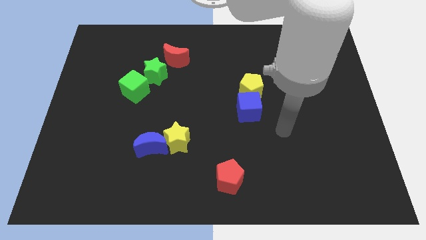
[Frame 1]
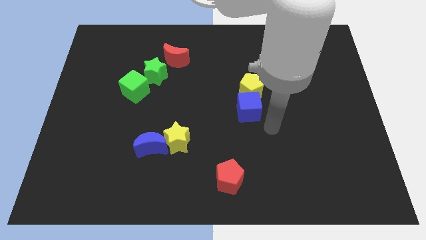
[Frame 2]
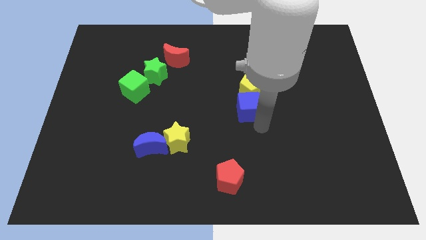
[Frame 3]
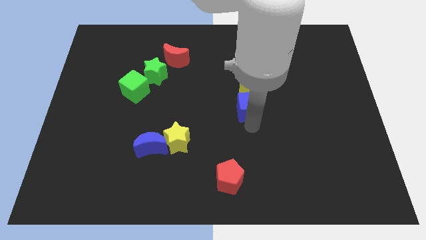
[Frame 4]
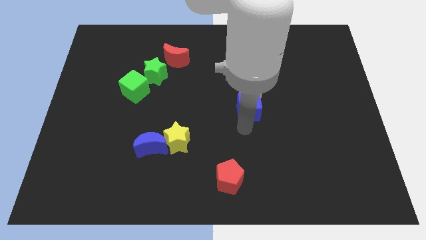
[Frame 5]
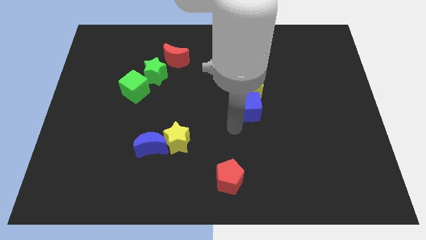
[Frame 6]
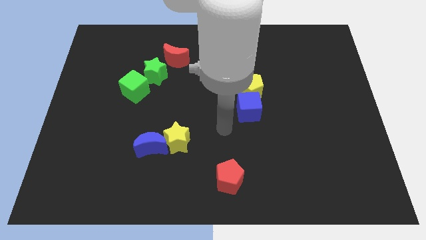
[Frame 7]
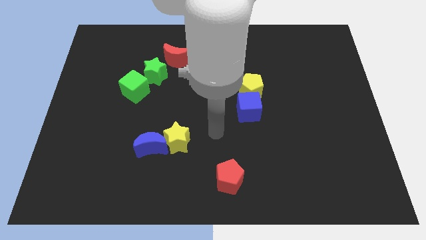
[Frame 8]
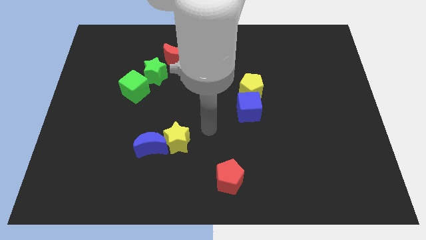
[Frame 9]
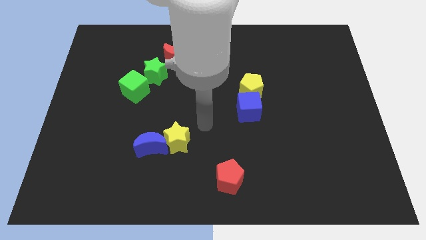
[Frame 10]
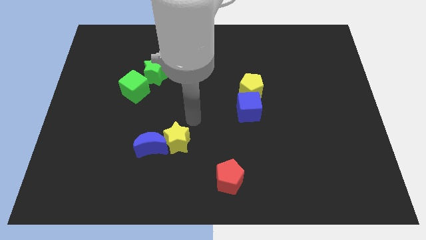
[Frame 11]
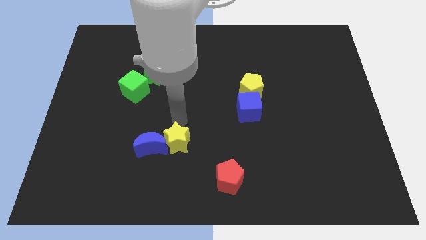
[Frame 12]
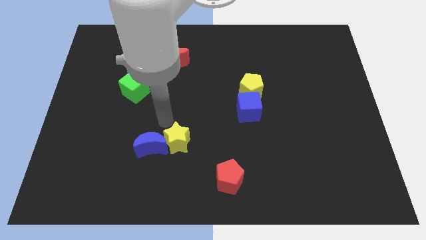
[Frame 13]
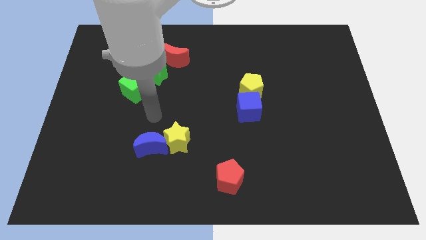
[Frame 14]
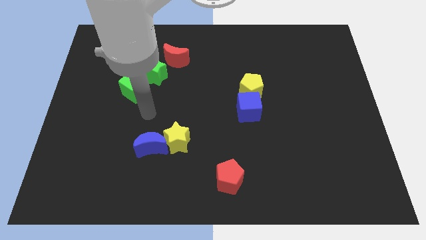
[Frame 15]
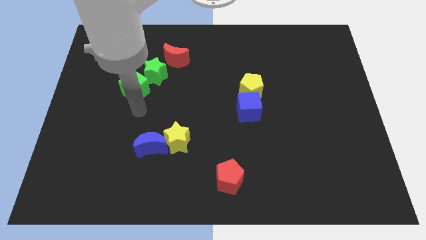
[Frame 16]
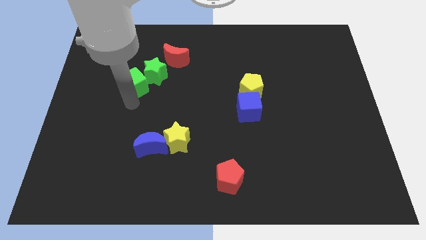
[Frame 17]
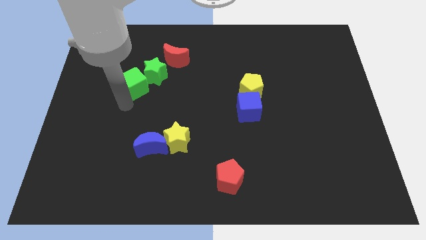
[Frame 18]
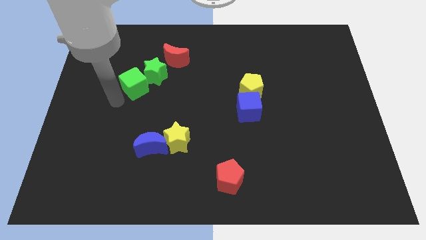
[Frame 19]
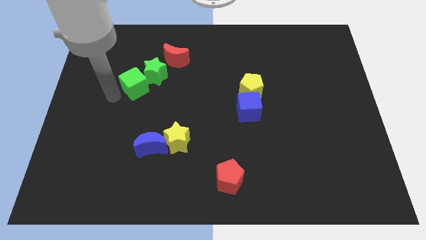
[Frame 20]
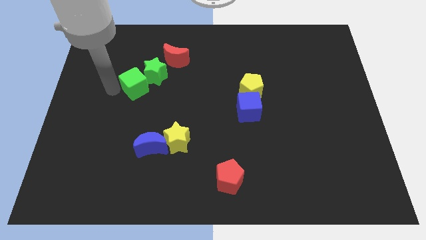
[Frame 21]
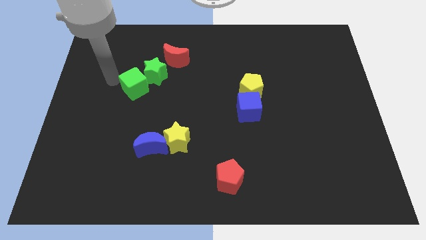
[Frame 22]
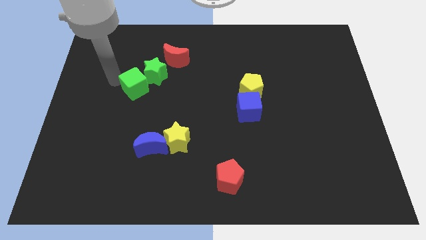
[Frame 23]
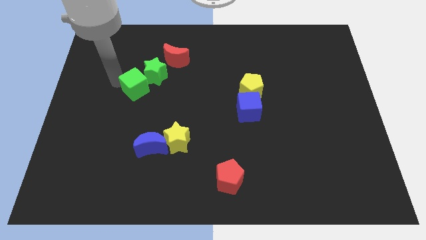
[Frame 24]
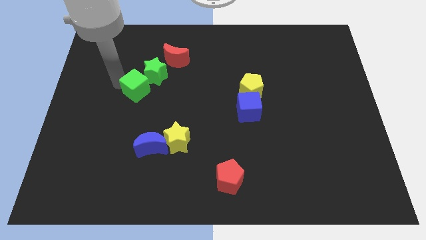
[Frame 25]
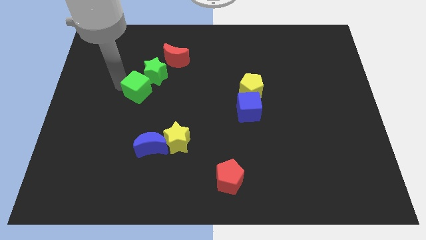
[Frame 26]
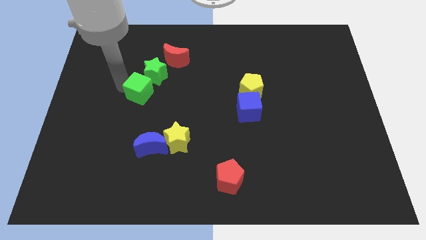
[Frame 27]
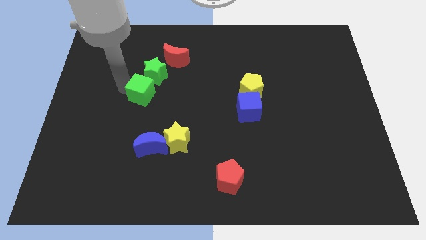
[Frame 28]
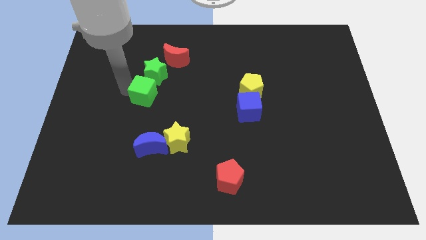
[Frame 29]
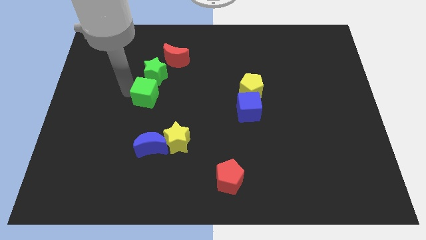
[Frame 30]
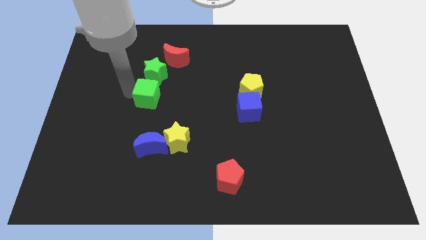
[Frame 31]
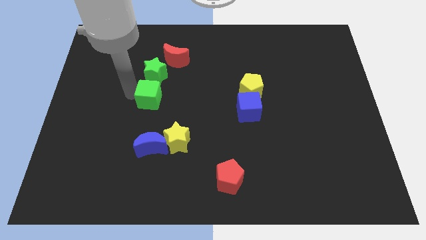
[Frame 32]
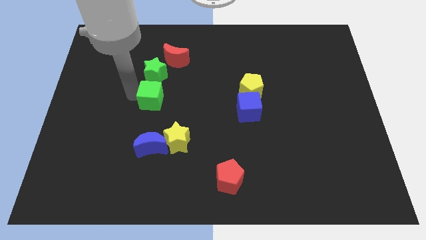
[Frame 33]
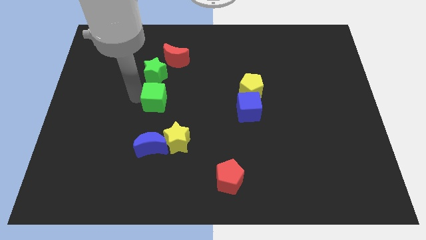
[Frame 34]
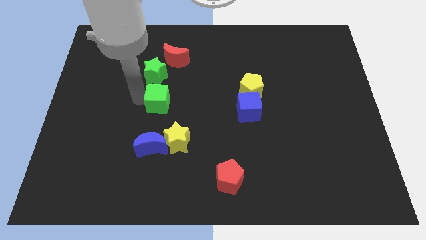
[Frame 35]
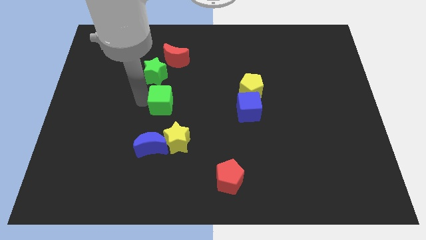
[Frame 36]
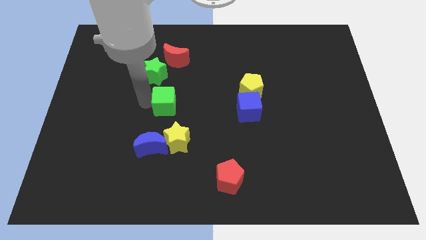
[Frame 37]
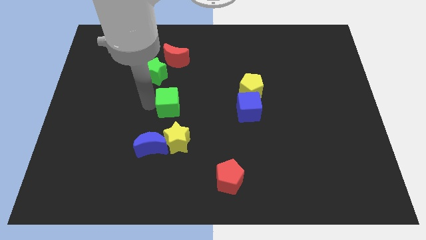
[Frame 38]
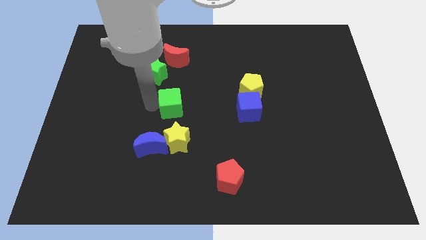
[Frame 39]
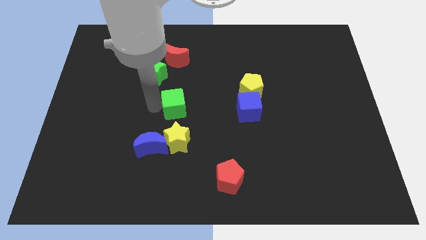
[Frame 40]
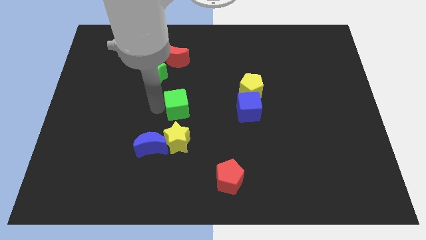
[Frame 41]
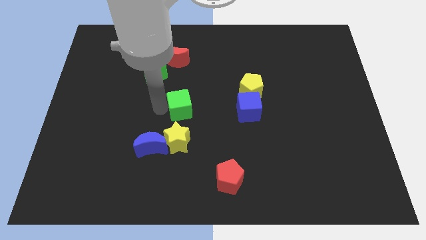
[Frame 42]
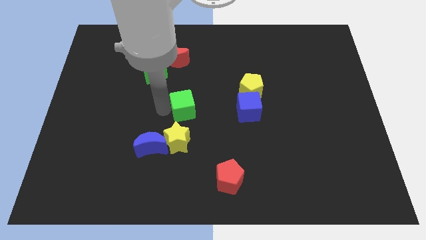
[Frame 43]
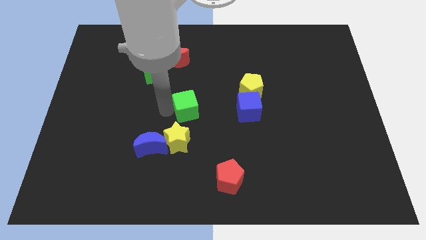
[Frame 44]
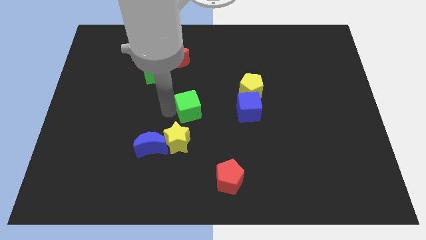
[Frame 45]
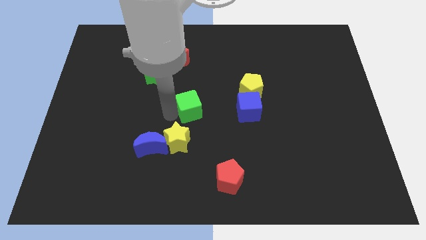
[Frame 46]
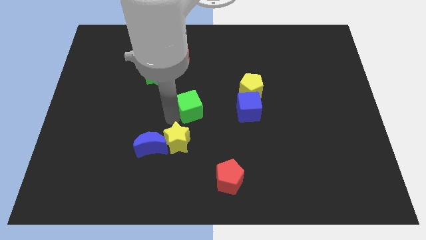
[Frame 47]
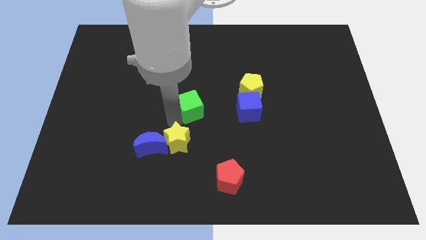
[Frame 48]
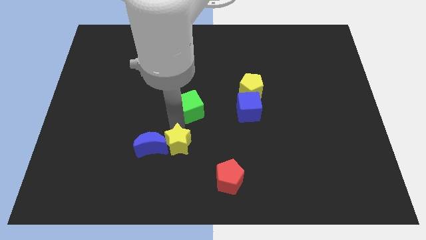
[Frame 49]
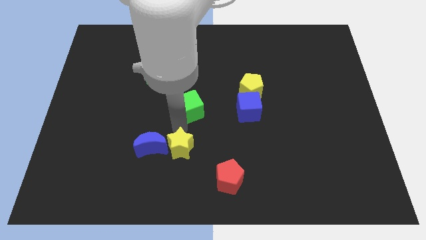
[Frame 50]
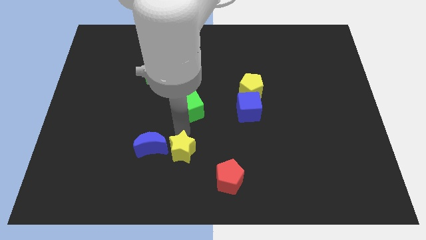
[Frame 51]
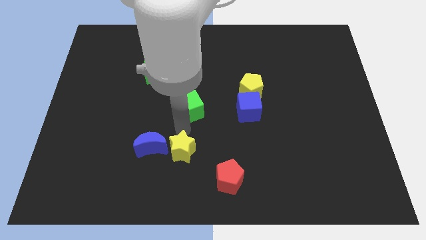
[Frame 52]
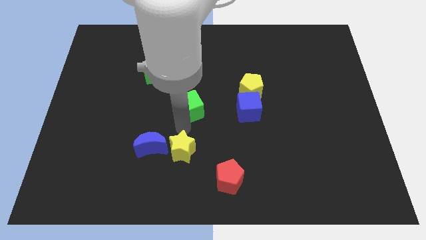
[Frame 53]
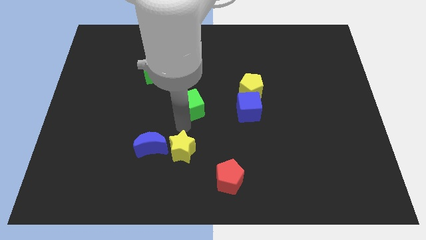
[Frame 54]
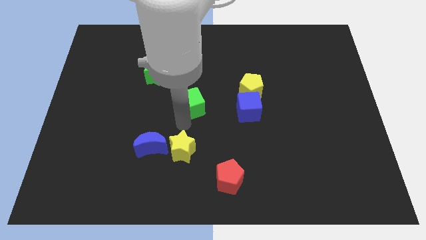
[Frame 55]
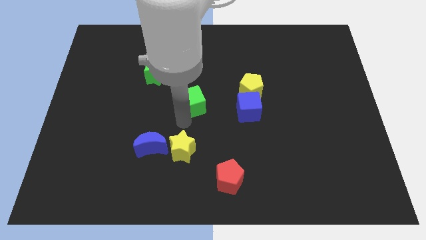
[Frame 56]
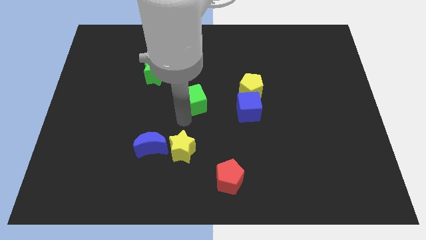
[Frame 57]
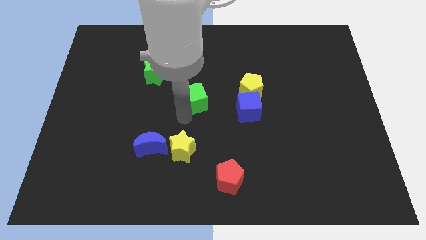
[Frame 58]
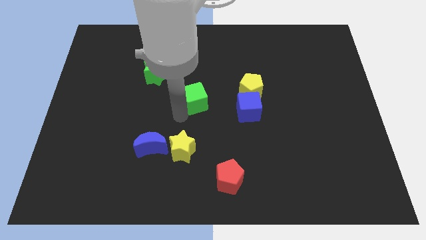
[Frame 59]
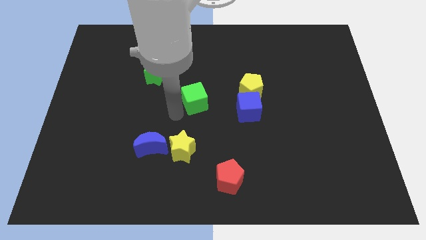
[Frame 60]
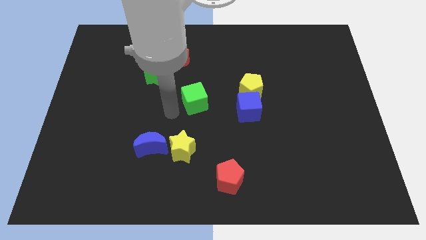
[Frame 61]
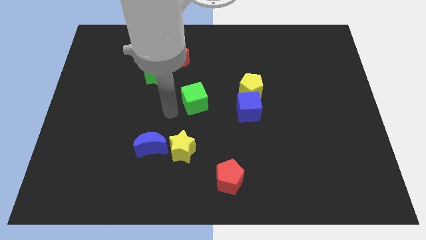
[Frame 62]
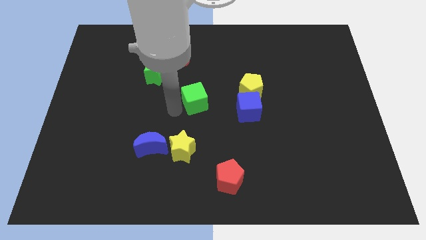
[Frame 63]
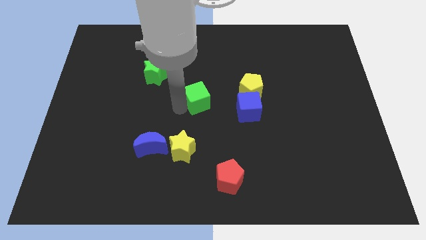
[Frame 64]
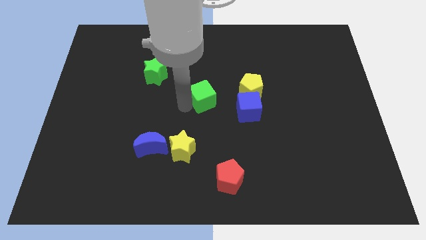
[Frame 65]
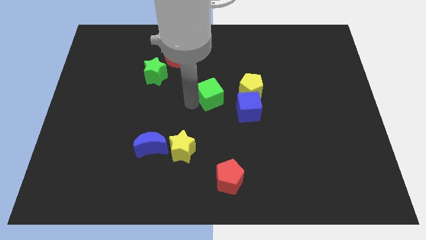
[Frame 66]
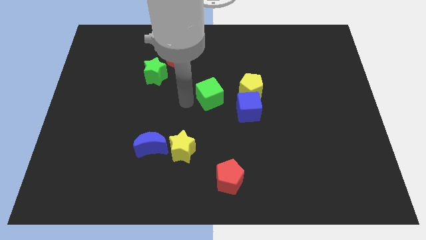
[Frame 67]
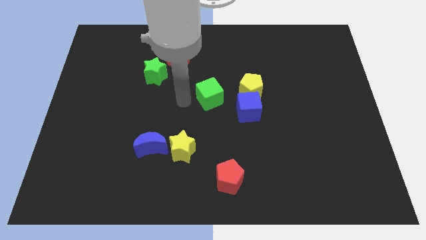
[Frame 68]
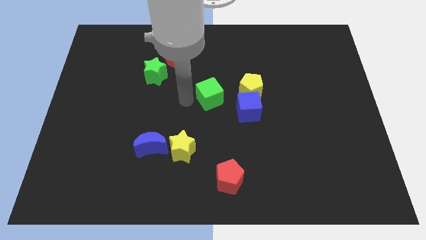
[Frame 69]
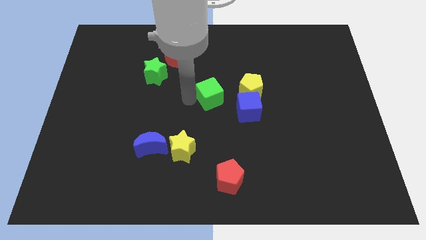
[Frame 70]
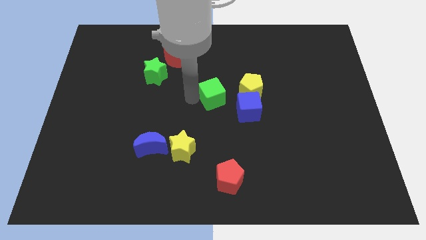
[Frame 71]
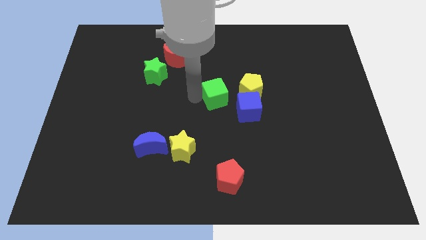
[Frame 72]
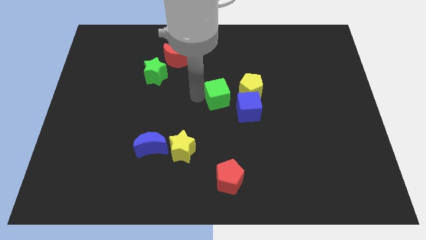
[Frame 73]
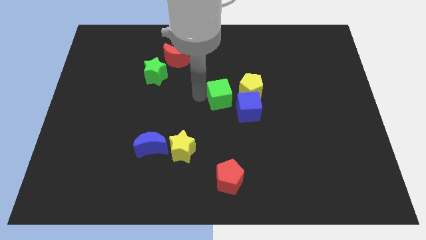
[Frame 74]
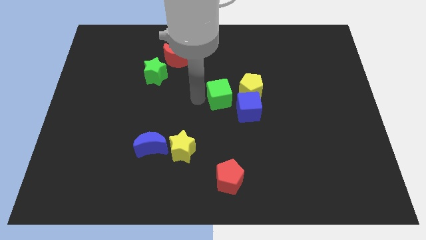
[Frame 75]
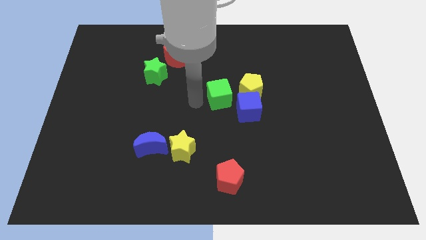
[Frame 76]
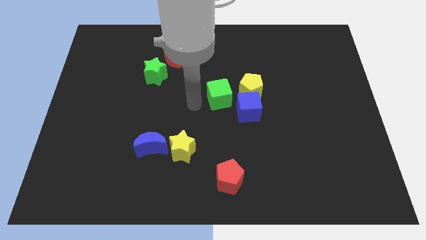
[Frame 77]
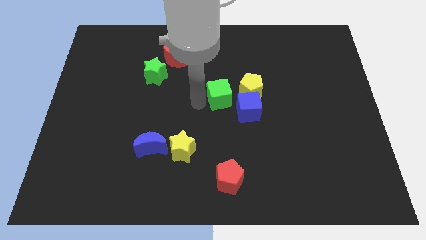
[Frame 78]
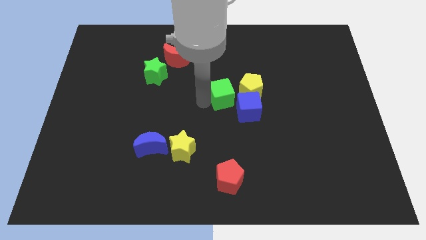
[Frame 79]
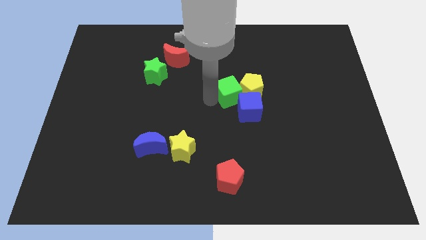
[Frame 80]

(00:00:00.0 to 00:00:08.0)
slide the green cube next to the yellow pentagon
